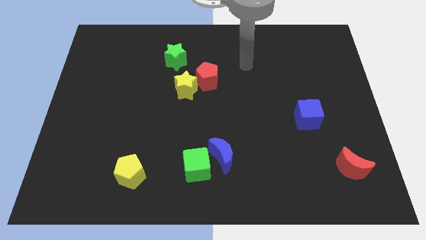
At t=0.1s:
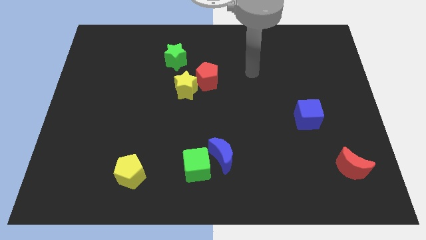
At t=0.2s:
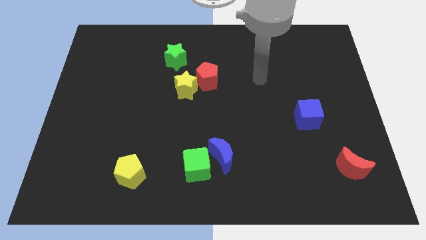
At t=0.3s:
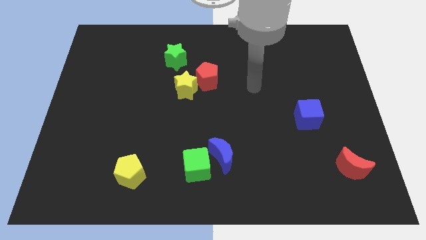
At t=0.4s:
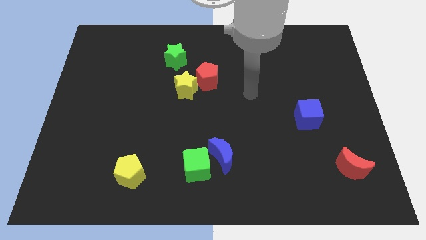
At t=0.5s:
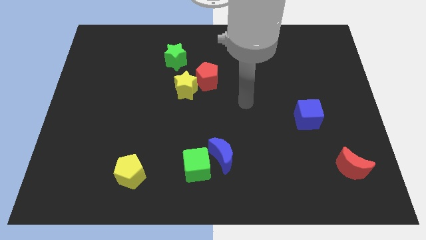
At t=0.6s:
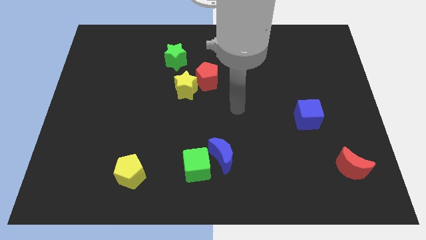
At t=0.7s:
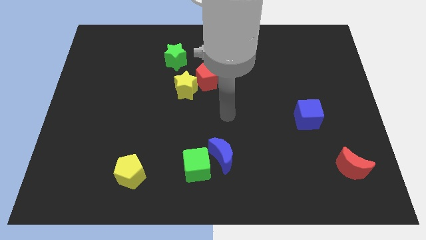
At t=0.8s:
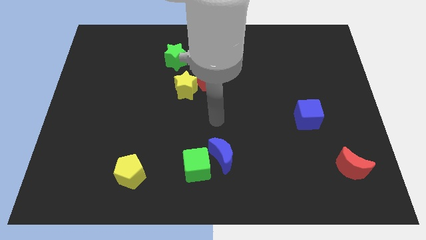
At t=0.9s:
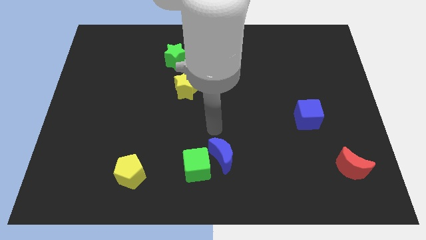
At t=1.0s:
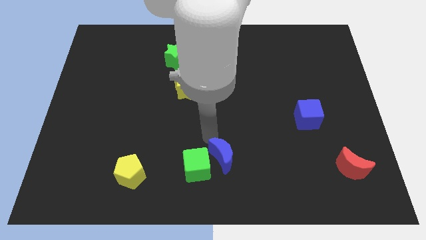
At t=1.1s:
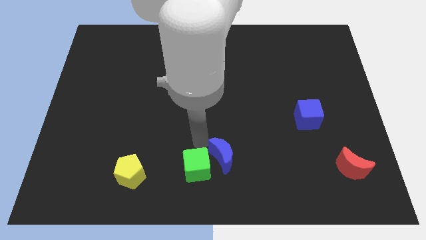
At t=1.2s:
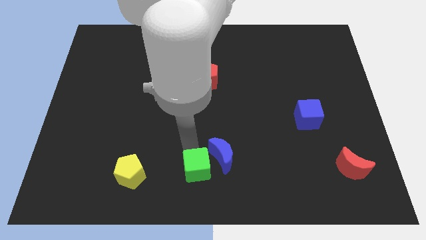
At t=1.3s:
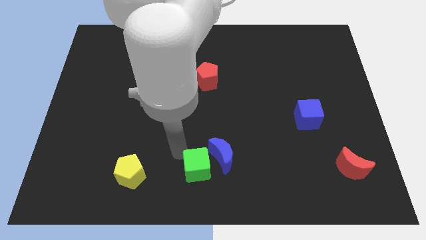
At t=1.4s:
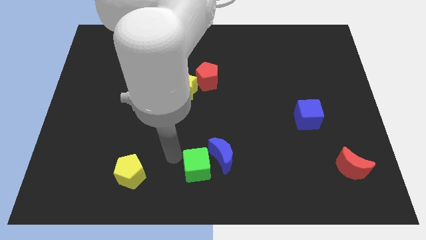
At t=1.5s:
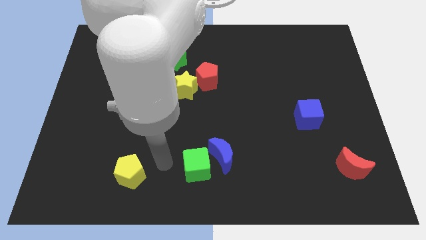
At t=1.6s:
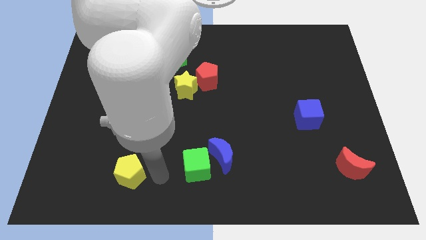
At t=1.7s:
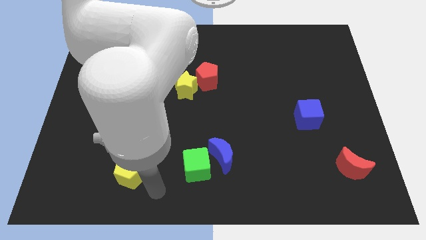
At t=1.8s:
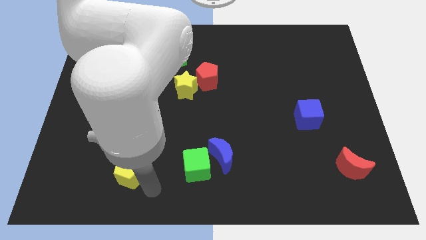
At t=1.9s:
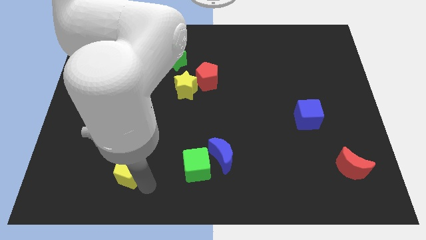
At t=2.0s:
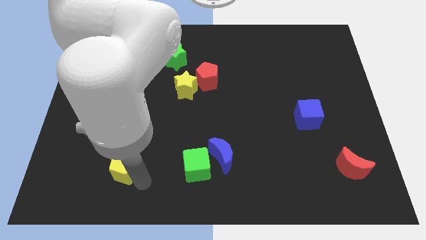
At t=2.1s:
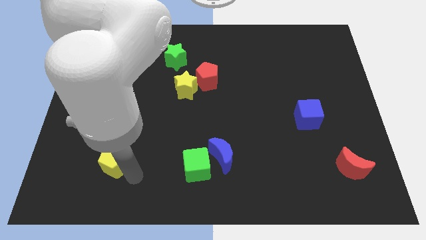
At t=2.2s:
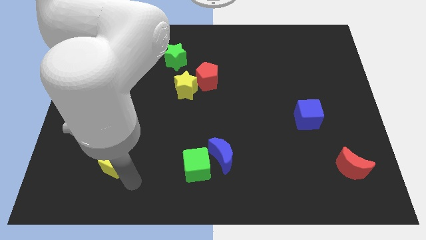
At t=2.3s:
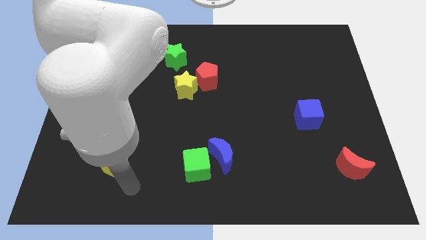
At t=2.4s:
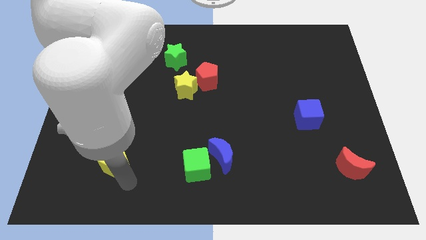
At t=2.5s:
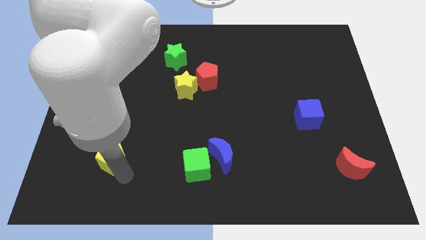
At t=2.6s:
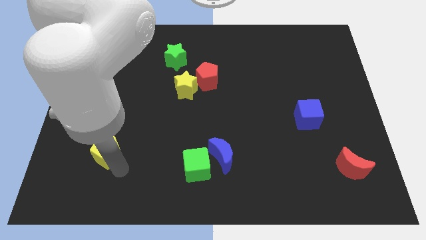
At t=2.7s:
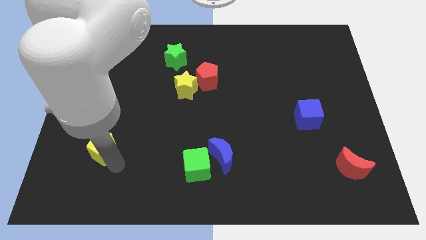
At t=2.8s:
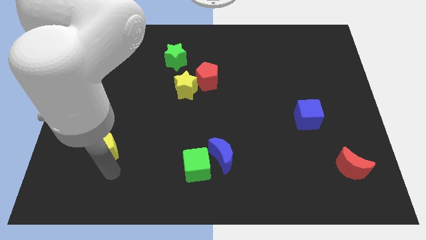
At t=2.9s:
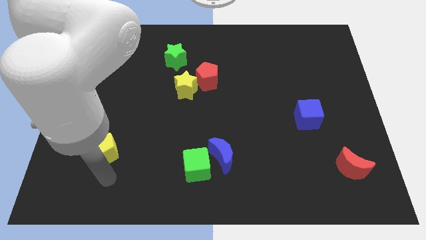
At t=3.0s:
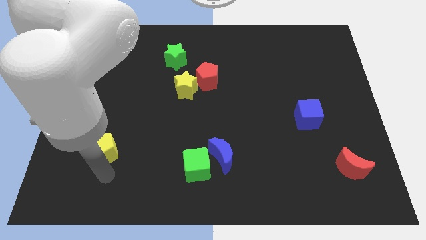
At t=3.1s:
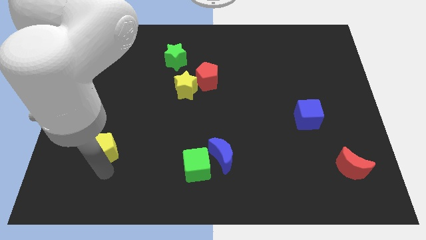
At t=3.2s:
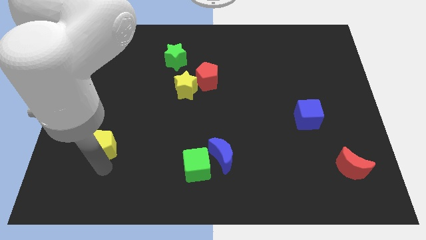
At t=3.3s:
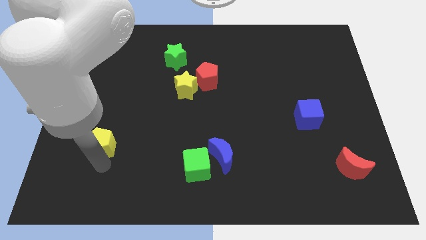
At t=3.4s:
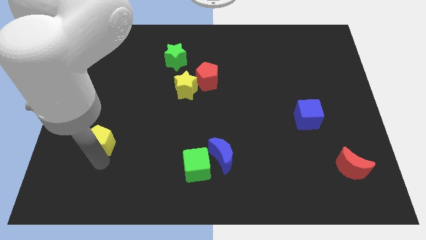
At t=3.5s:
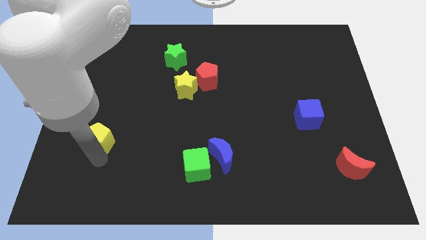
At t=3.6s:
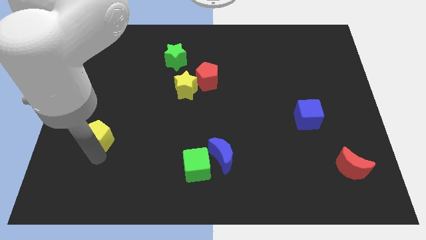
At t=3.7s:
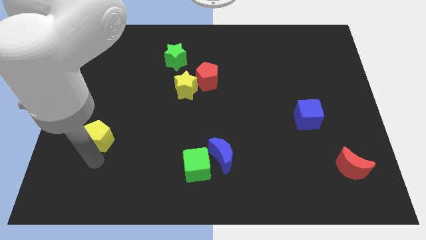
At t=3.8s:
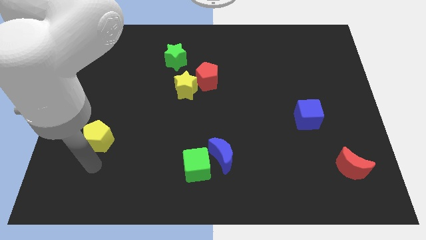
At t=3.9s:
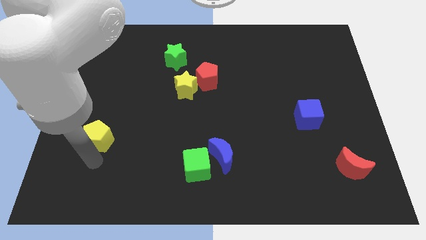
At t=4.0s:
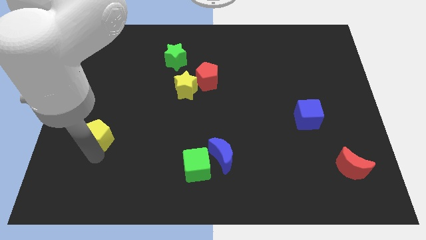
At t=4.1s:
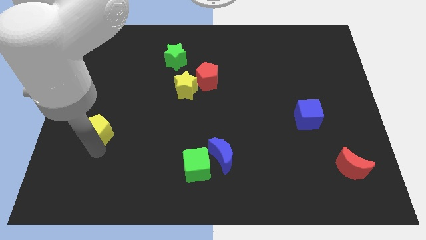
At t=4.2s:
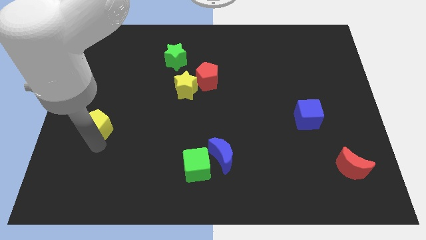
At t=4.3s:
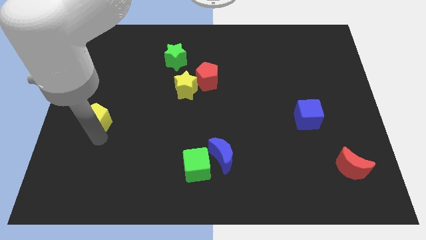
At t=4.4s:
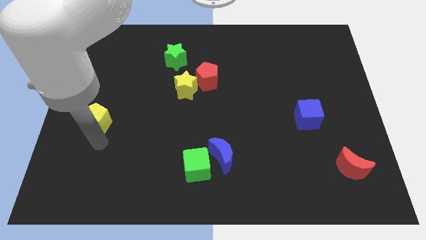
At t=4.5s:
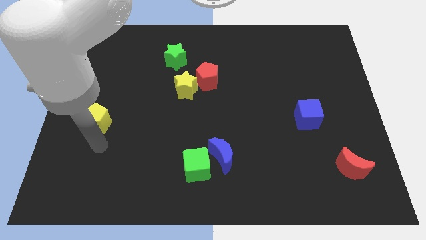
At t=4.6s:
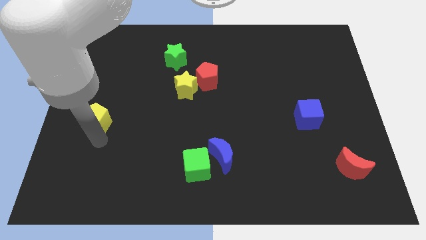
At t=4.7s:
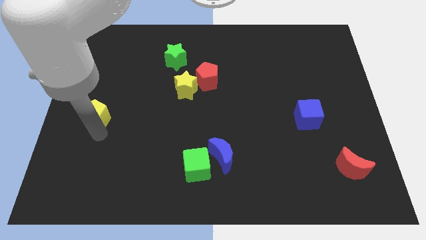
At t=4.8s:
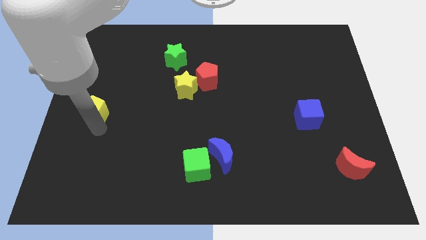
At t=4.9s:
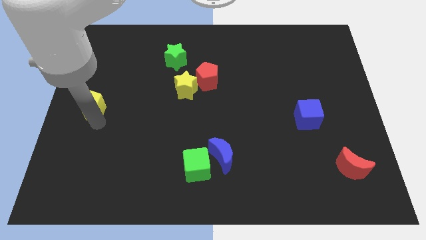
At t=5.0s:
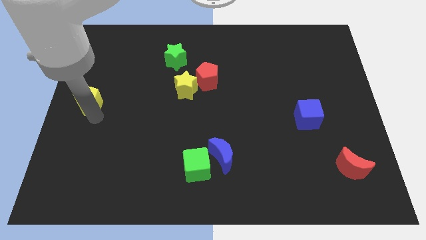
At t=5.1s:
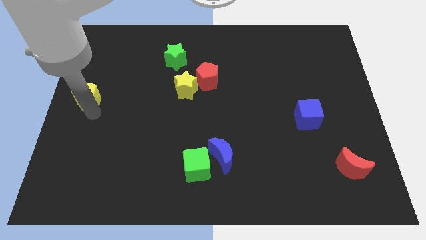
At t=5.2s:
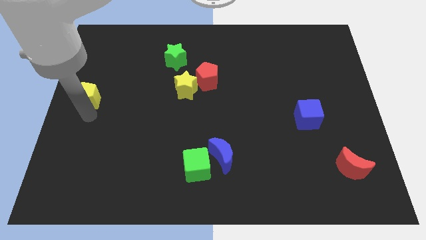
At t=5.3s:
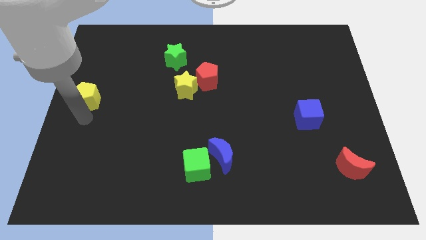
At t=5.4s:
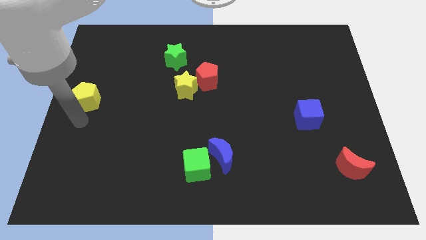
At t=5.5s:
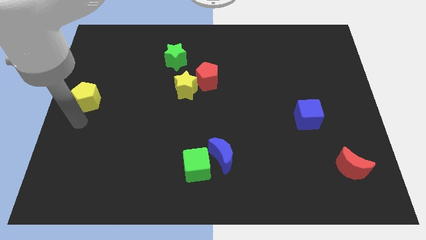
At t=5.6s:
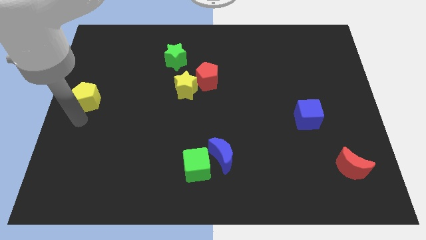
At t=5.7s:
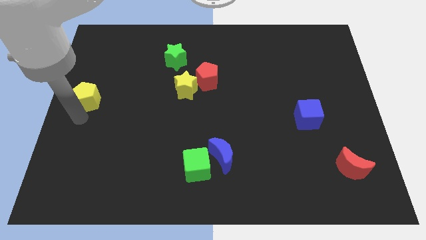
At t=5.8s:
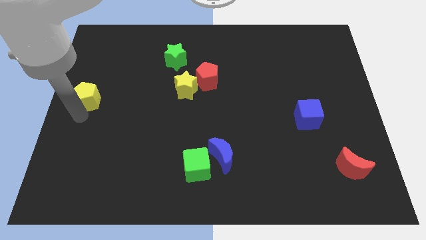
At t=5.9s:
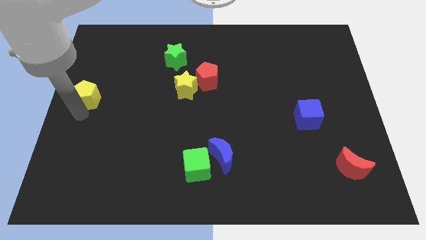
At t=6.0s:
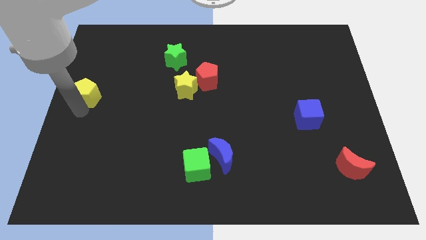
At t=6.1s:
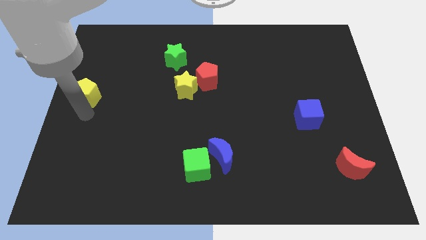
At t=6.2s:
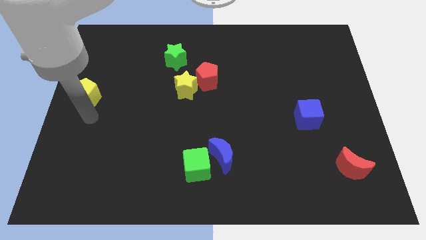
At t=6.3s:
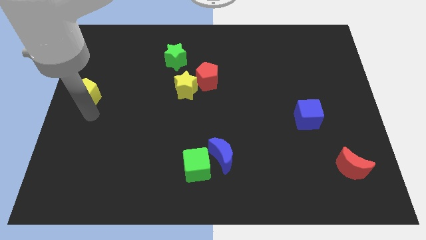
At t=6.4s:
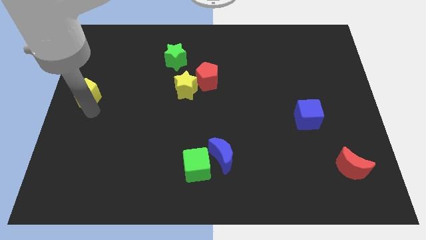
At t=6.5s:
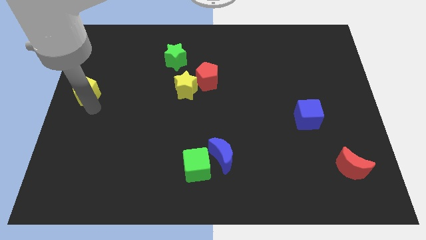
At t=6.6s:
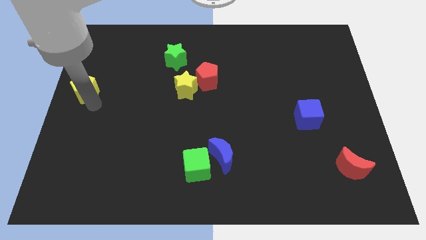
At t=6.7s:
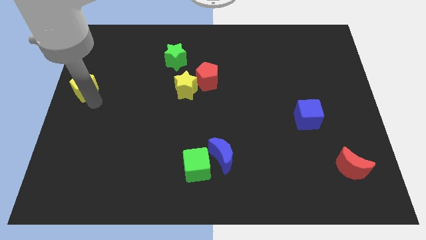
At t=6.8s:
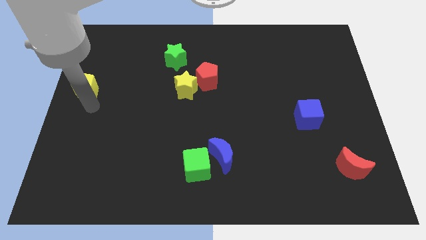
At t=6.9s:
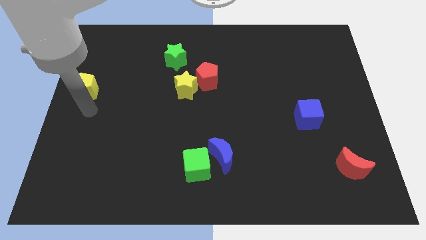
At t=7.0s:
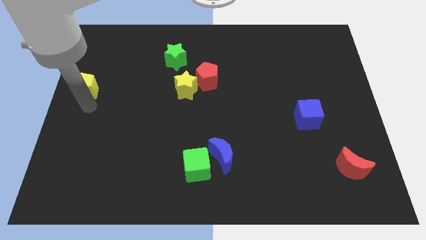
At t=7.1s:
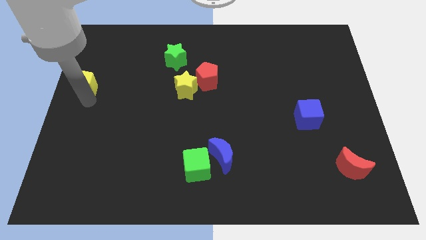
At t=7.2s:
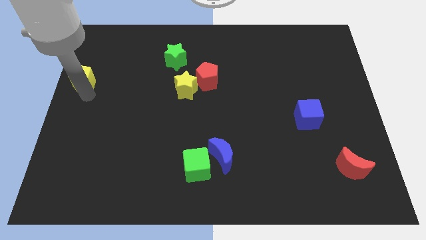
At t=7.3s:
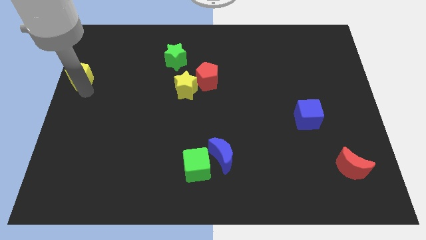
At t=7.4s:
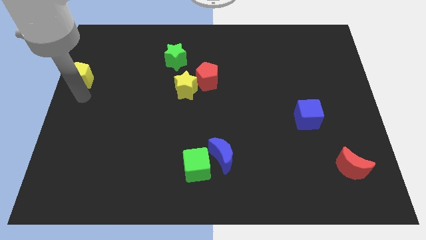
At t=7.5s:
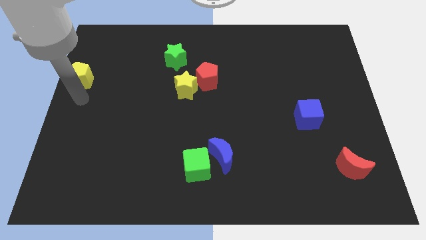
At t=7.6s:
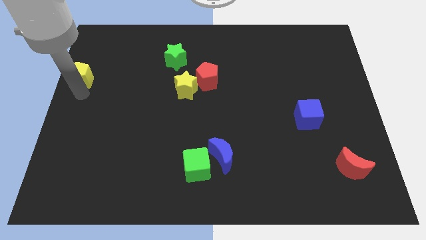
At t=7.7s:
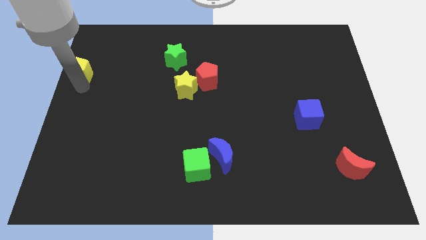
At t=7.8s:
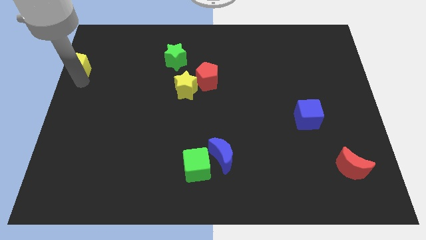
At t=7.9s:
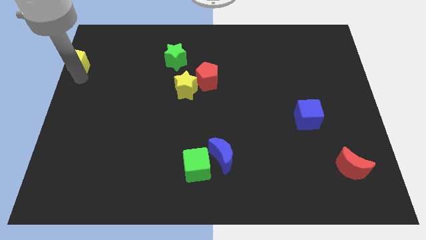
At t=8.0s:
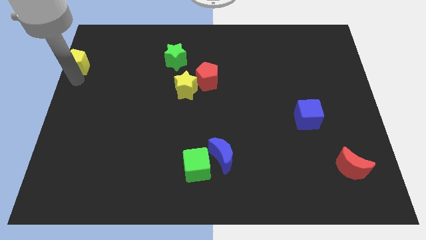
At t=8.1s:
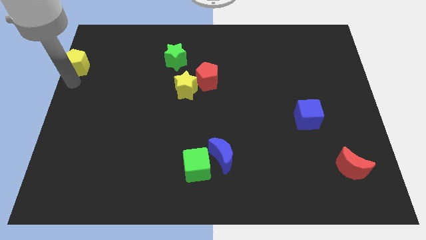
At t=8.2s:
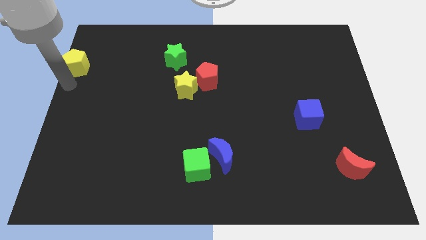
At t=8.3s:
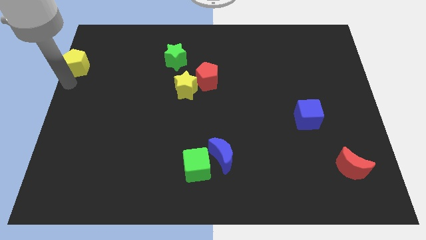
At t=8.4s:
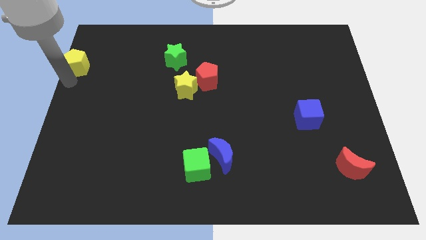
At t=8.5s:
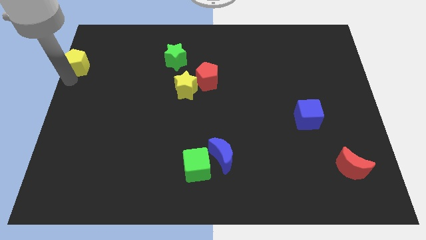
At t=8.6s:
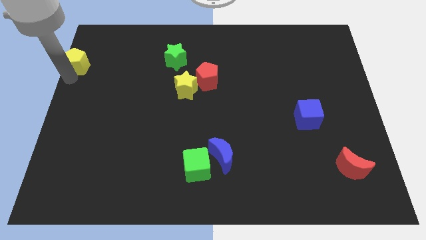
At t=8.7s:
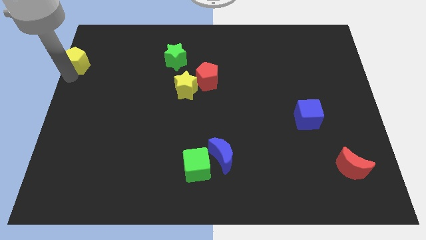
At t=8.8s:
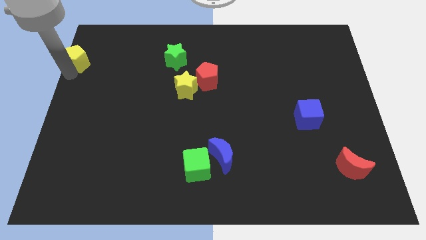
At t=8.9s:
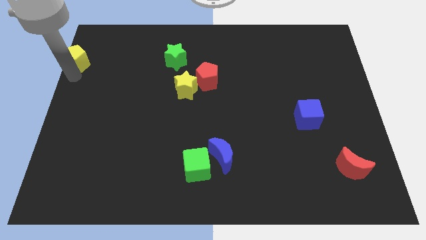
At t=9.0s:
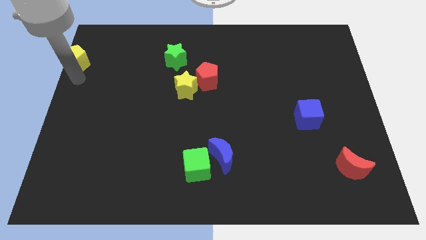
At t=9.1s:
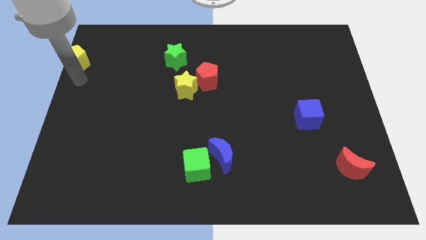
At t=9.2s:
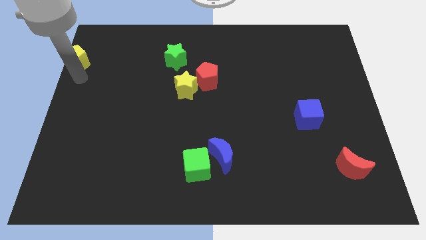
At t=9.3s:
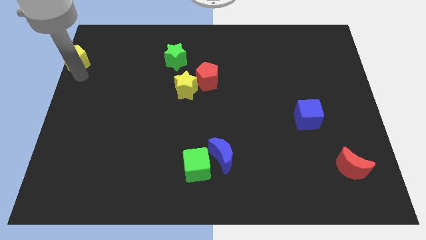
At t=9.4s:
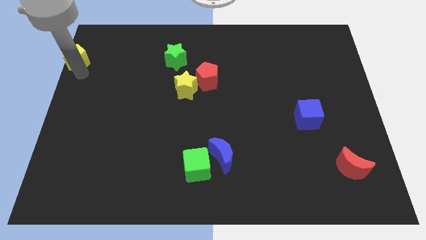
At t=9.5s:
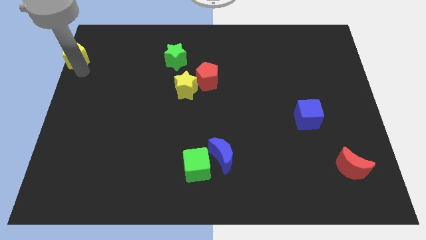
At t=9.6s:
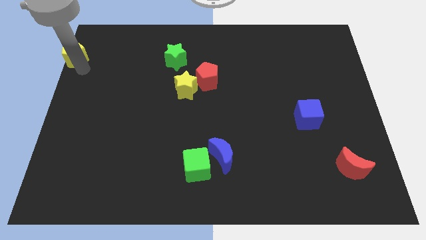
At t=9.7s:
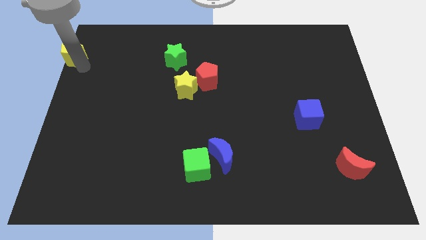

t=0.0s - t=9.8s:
put the yellow pentagon to the top left corner
